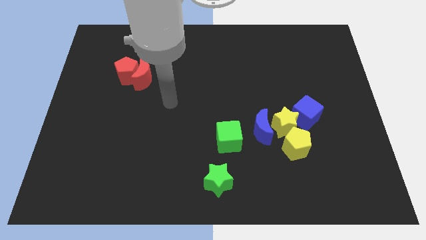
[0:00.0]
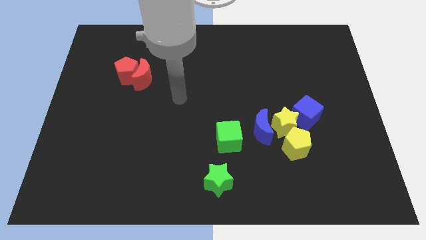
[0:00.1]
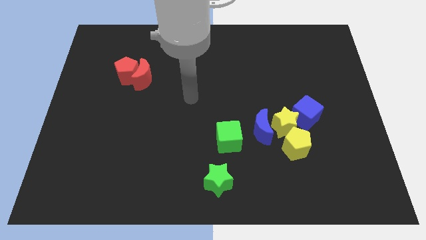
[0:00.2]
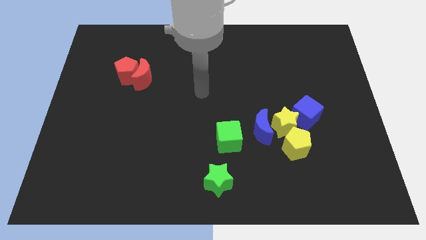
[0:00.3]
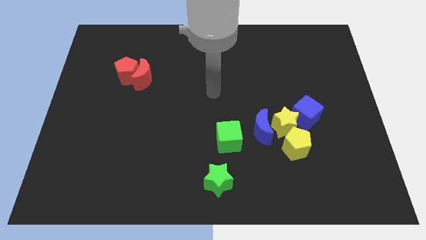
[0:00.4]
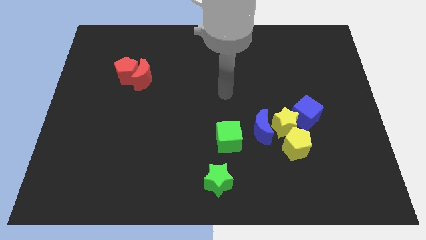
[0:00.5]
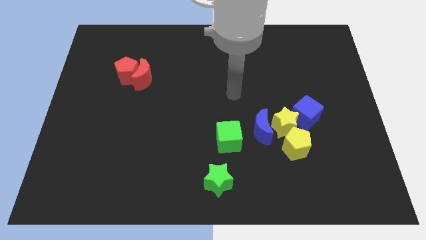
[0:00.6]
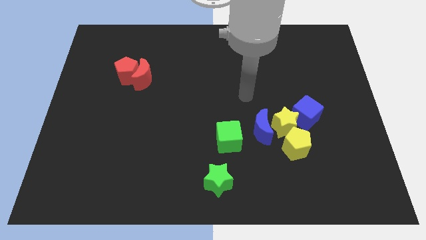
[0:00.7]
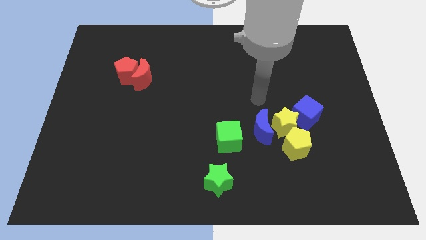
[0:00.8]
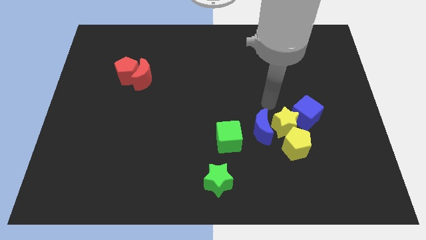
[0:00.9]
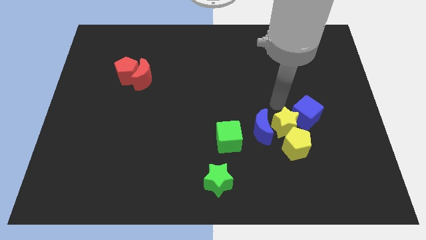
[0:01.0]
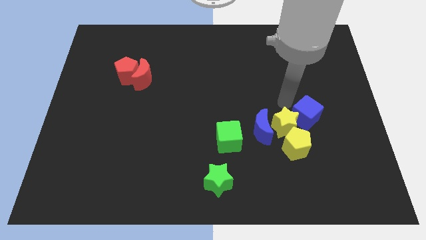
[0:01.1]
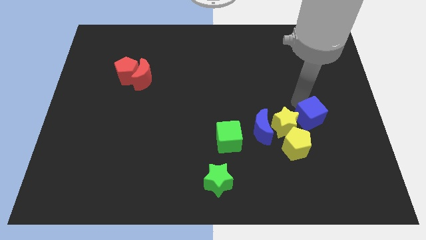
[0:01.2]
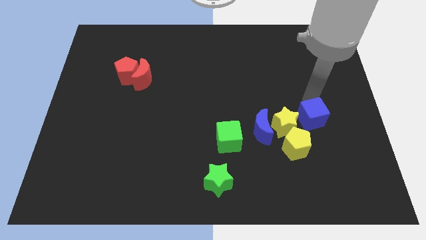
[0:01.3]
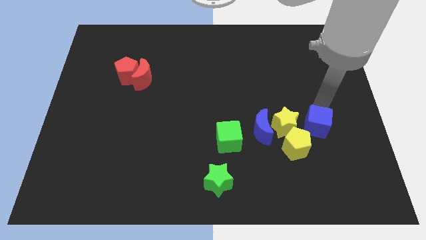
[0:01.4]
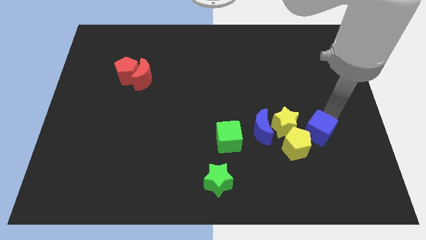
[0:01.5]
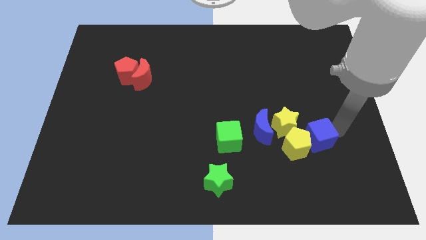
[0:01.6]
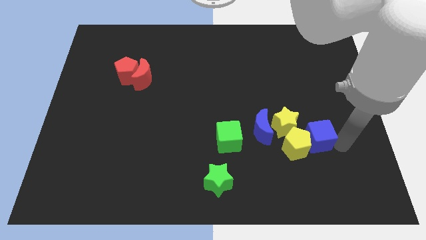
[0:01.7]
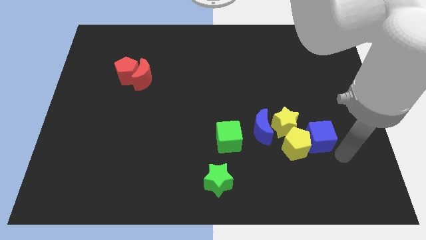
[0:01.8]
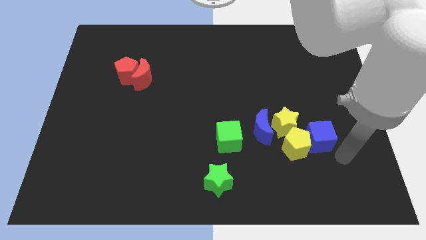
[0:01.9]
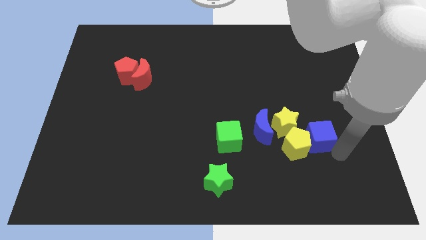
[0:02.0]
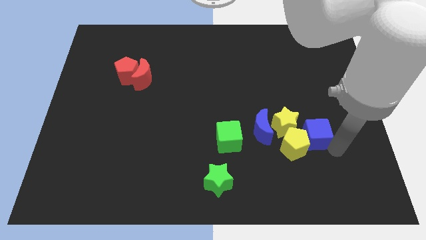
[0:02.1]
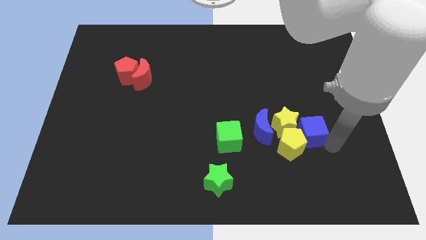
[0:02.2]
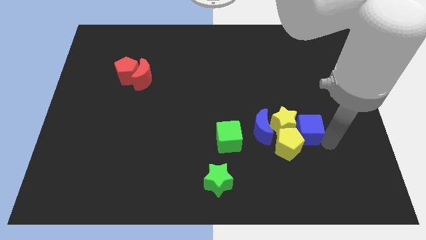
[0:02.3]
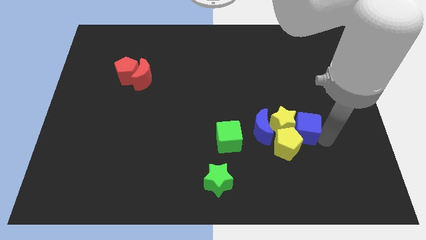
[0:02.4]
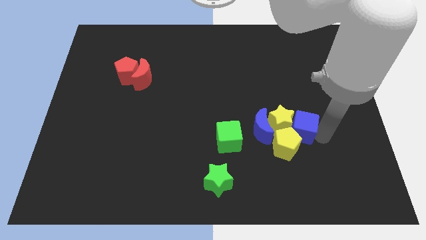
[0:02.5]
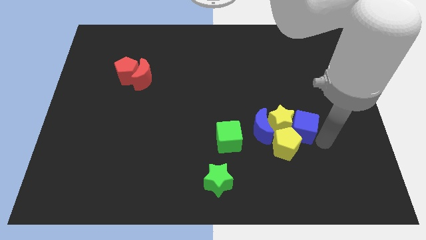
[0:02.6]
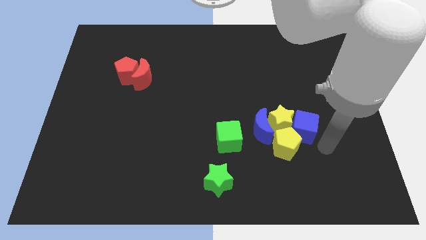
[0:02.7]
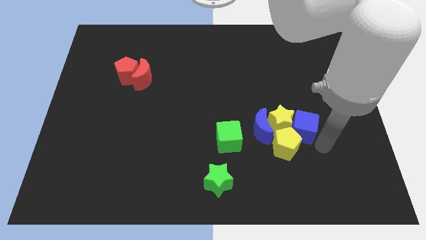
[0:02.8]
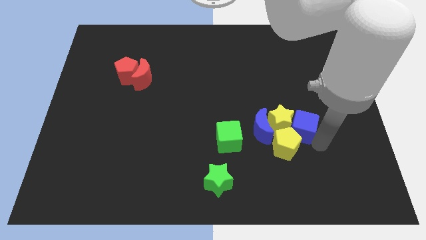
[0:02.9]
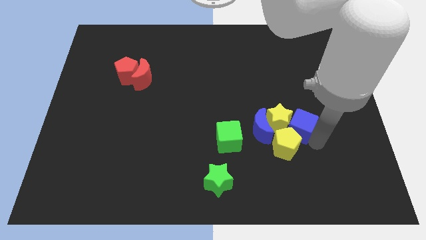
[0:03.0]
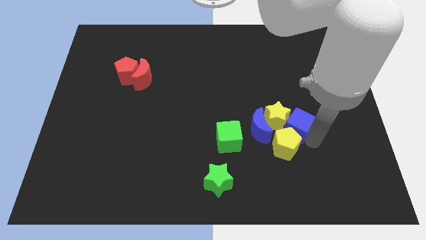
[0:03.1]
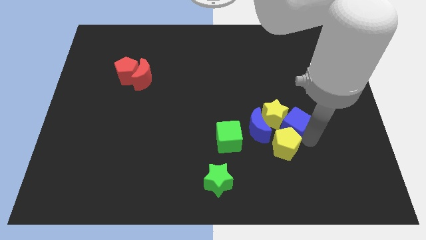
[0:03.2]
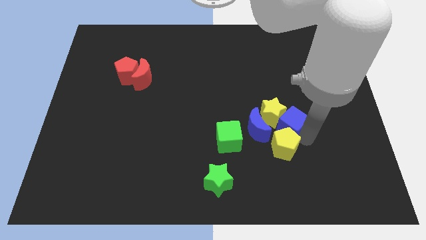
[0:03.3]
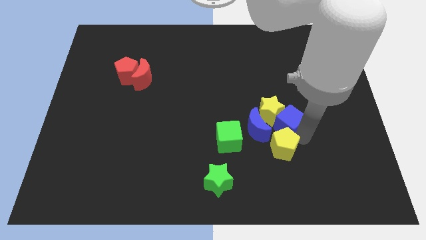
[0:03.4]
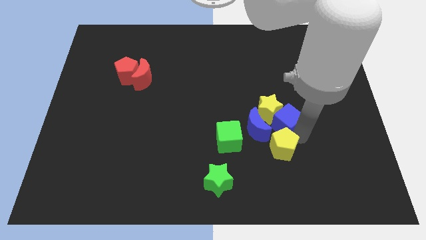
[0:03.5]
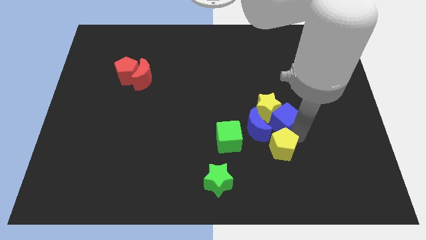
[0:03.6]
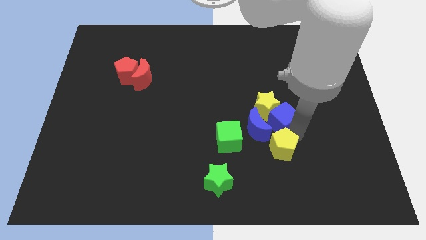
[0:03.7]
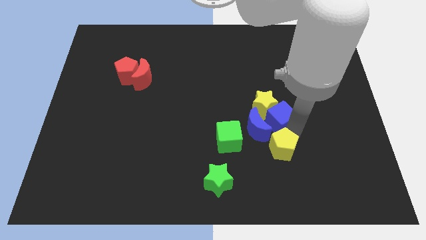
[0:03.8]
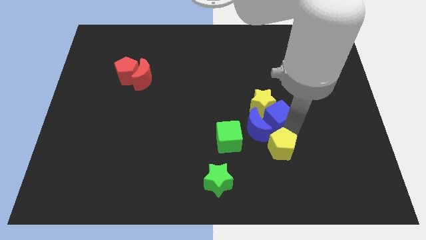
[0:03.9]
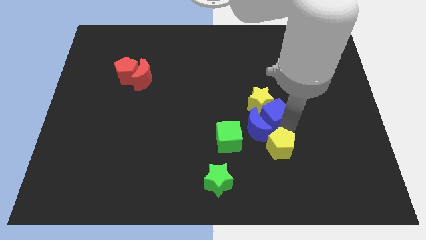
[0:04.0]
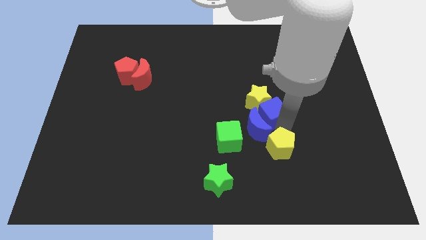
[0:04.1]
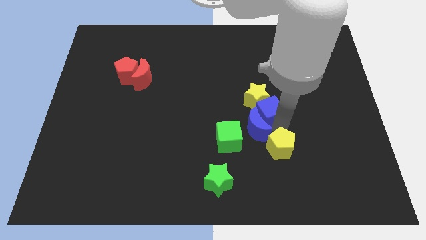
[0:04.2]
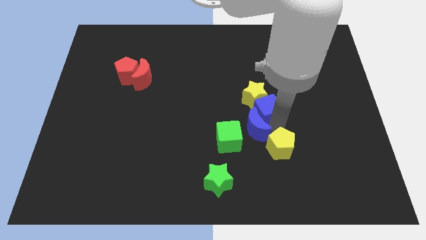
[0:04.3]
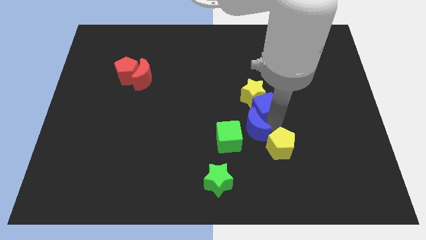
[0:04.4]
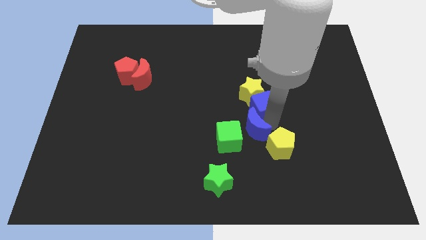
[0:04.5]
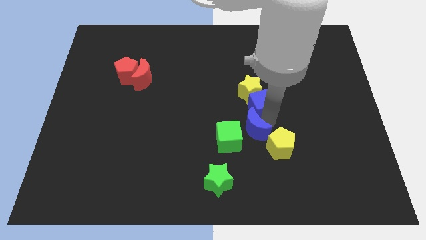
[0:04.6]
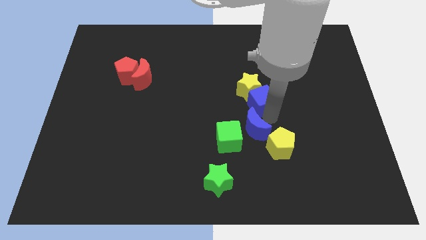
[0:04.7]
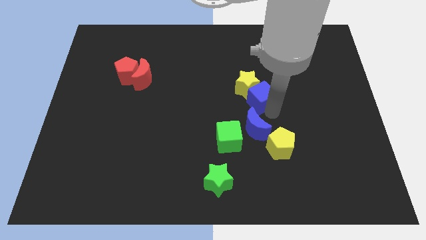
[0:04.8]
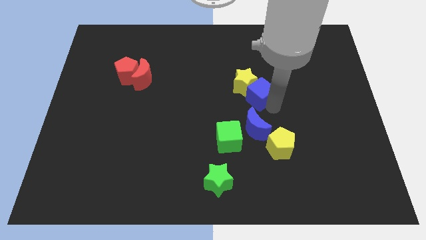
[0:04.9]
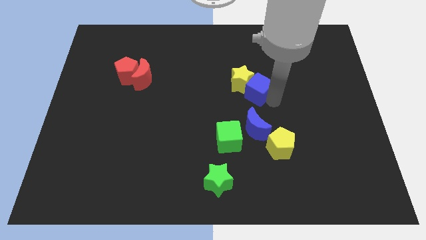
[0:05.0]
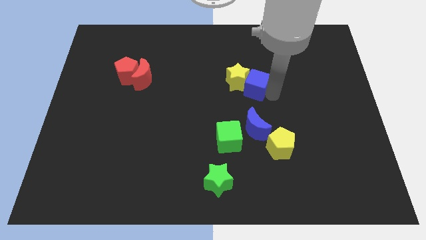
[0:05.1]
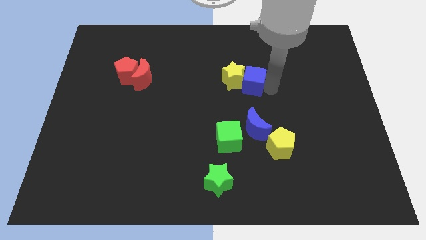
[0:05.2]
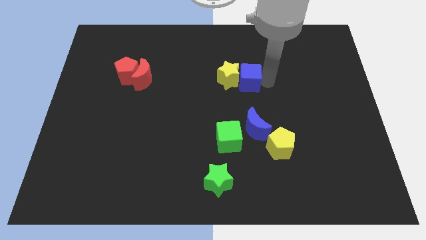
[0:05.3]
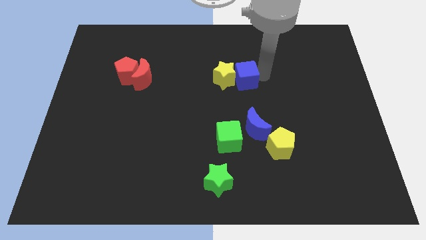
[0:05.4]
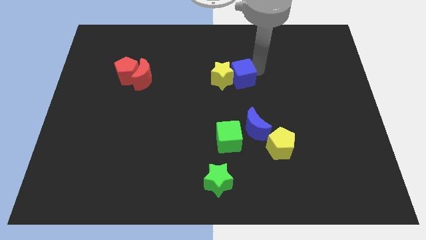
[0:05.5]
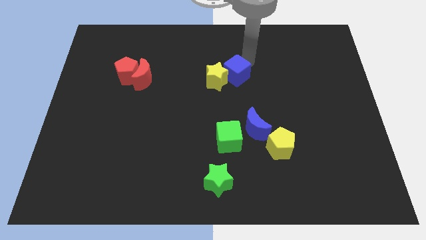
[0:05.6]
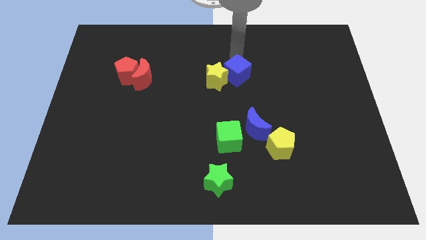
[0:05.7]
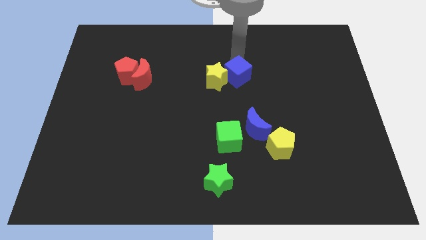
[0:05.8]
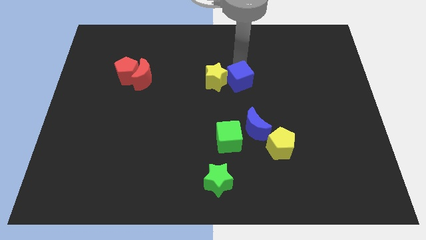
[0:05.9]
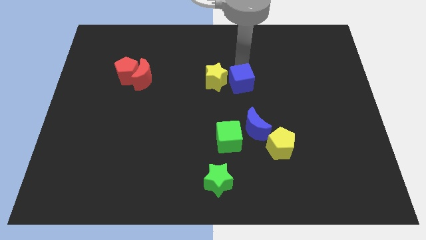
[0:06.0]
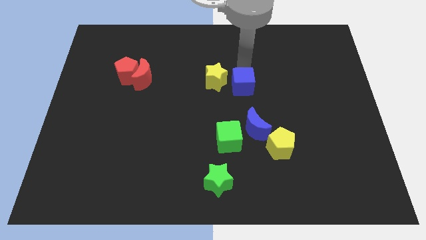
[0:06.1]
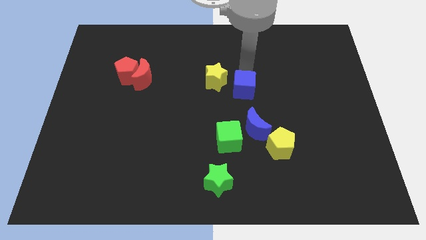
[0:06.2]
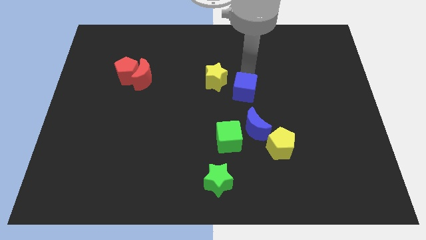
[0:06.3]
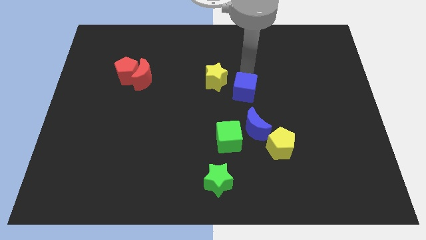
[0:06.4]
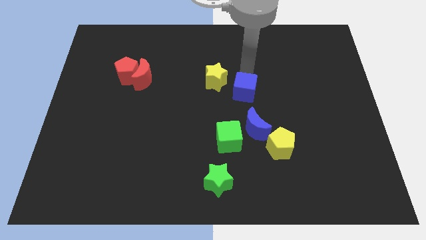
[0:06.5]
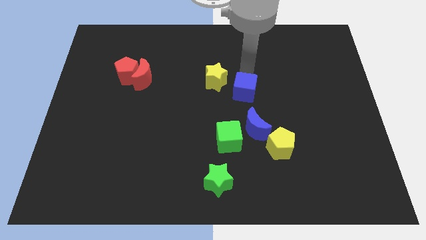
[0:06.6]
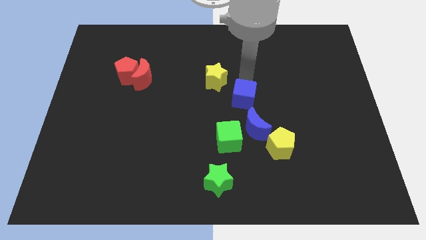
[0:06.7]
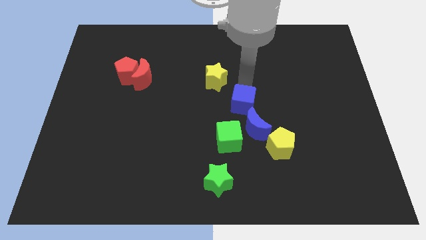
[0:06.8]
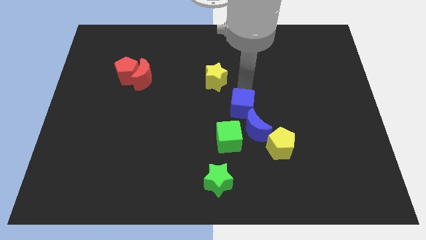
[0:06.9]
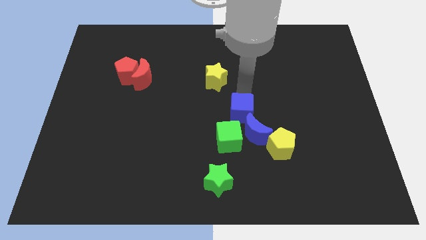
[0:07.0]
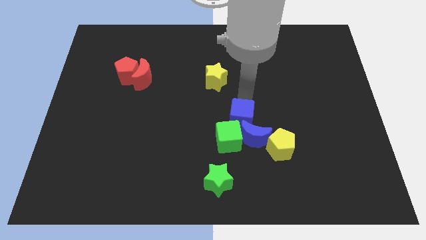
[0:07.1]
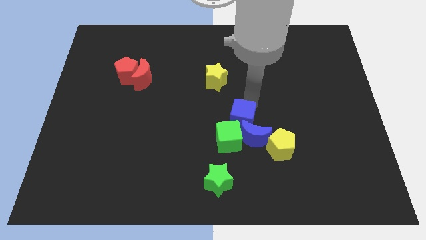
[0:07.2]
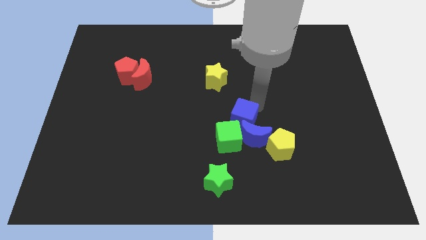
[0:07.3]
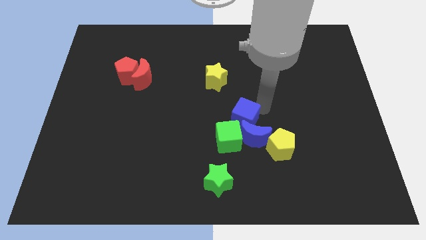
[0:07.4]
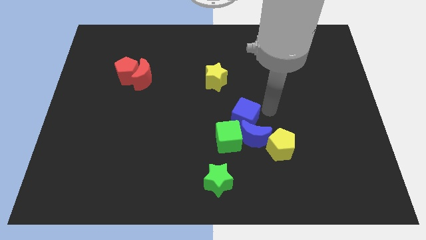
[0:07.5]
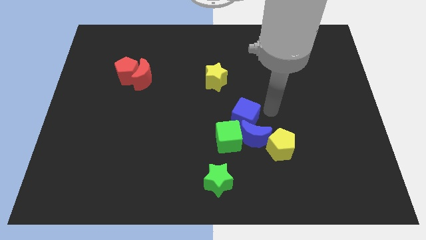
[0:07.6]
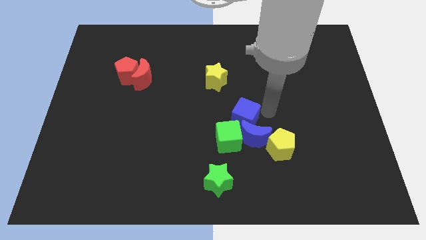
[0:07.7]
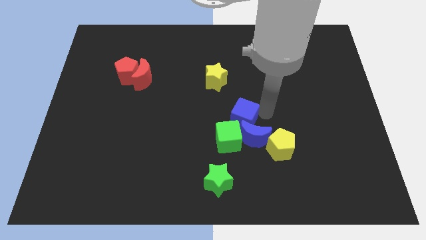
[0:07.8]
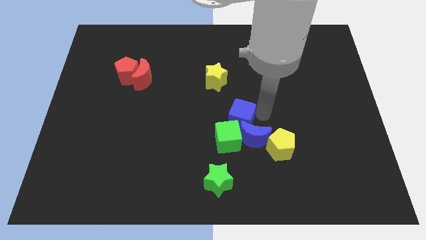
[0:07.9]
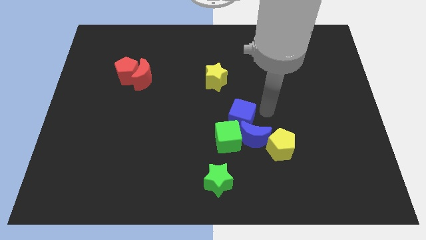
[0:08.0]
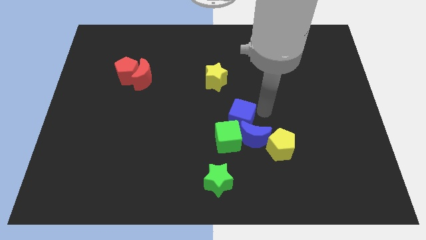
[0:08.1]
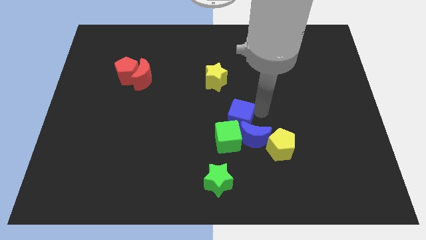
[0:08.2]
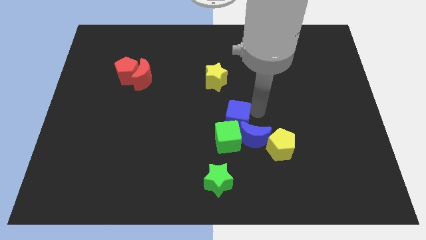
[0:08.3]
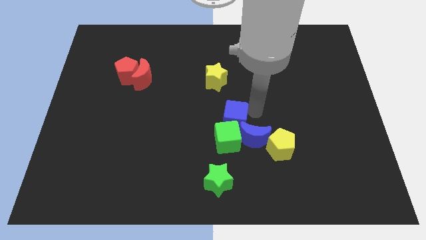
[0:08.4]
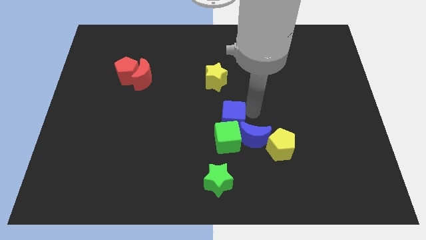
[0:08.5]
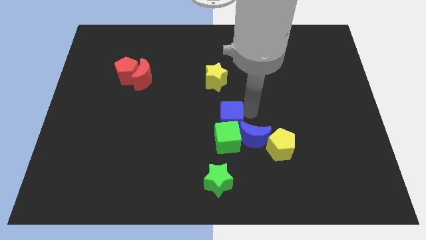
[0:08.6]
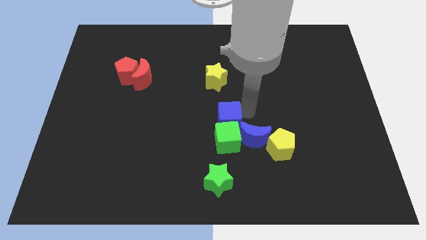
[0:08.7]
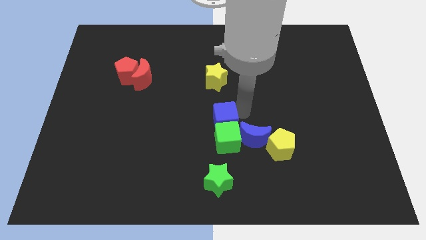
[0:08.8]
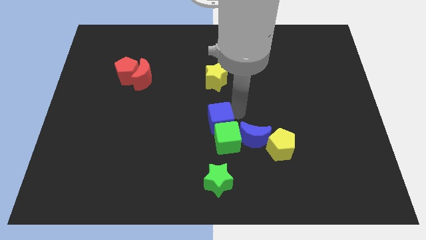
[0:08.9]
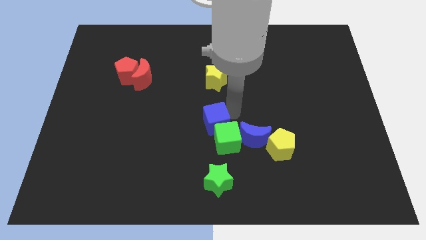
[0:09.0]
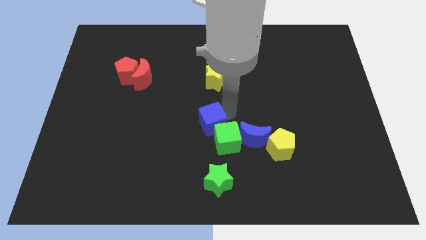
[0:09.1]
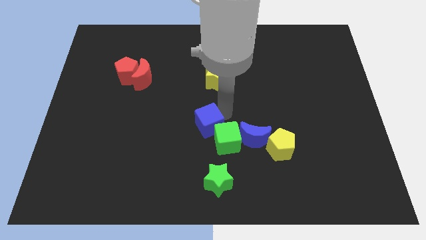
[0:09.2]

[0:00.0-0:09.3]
move the blue cube to the left side of the green cube
